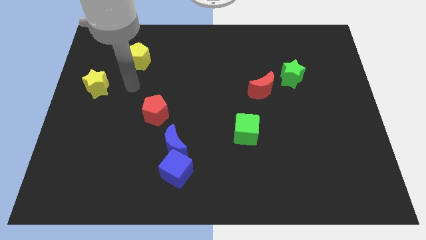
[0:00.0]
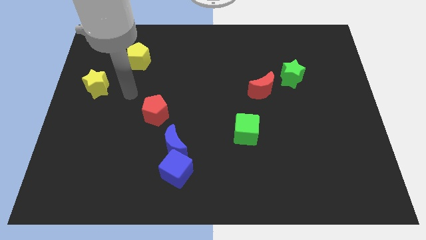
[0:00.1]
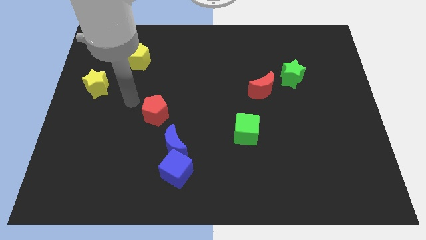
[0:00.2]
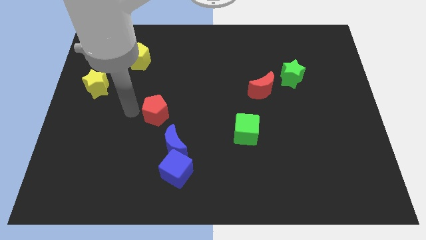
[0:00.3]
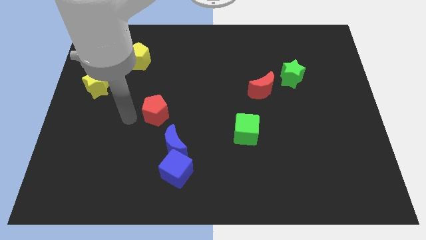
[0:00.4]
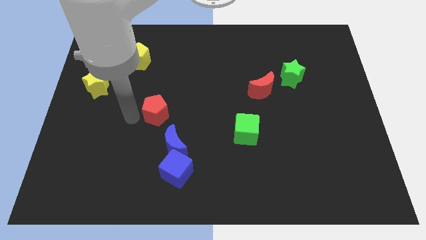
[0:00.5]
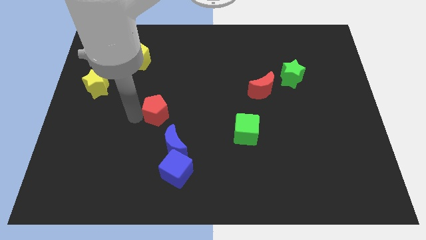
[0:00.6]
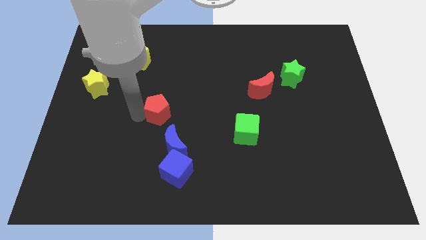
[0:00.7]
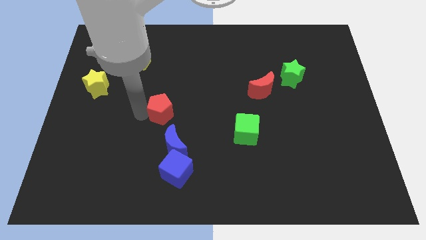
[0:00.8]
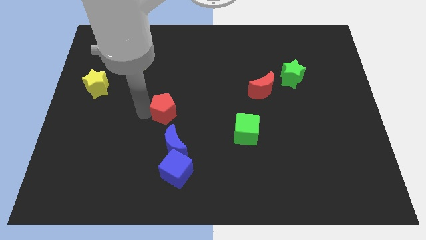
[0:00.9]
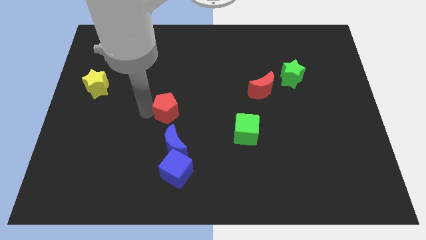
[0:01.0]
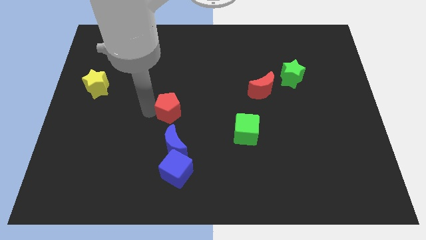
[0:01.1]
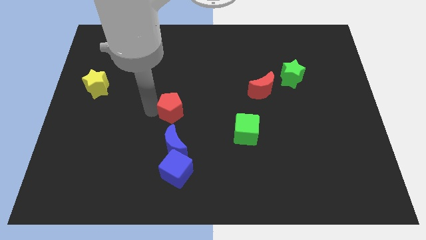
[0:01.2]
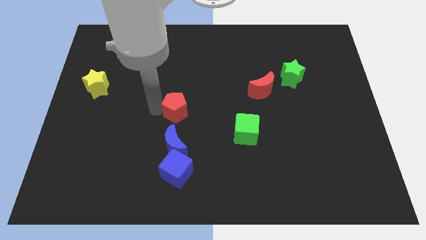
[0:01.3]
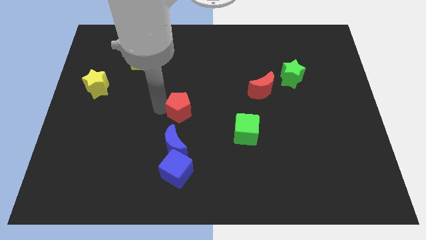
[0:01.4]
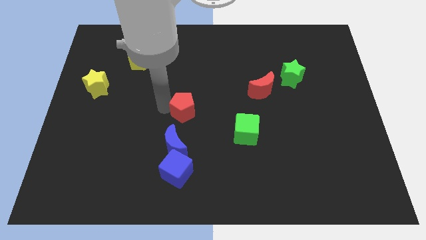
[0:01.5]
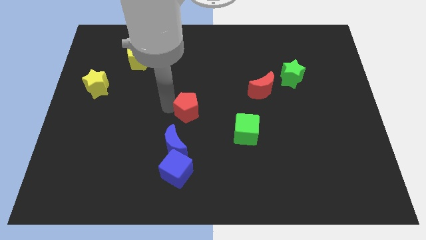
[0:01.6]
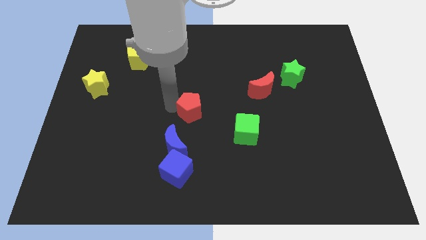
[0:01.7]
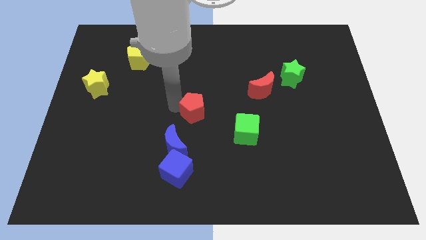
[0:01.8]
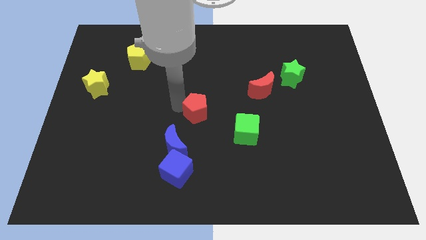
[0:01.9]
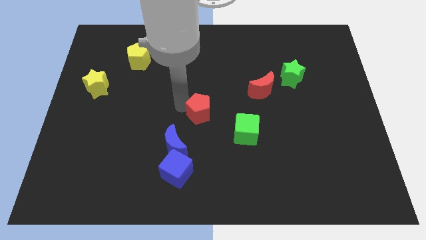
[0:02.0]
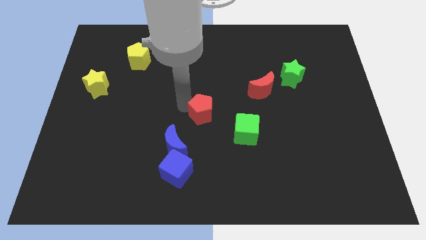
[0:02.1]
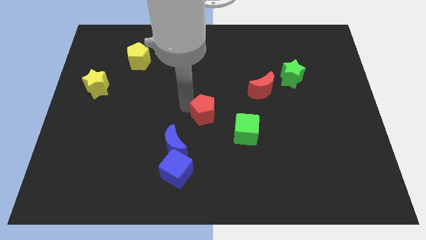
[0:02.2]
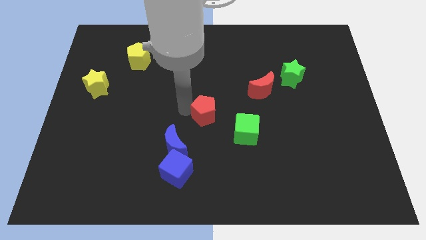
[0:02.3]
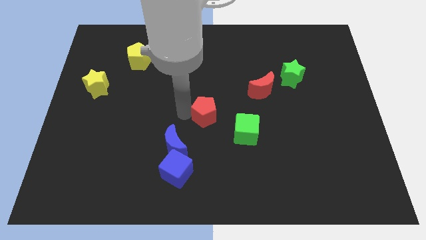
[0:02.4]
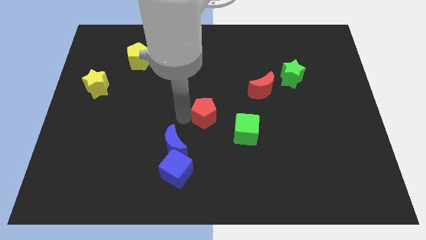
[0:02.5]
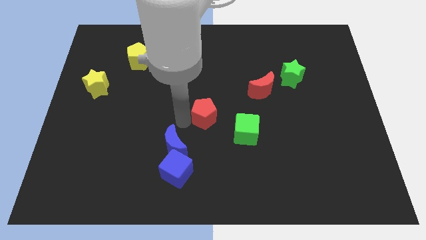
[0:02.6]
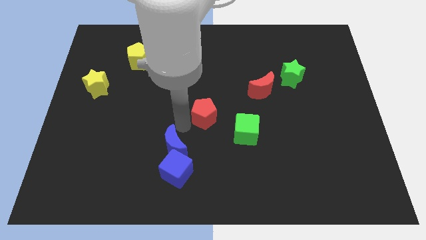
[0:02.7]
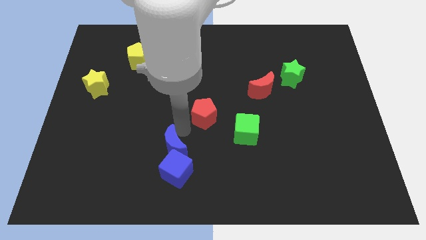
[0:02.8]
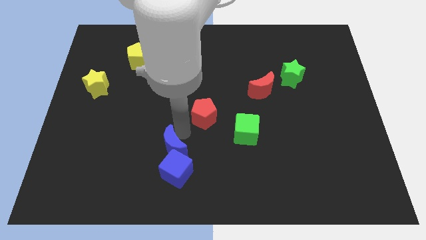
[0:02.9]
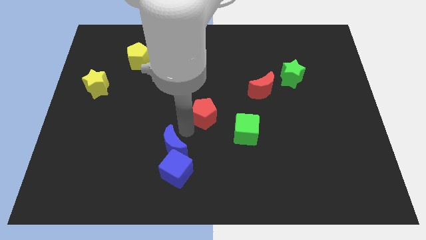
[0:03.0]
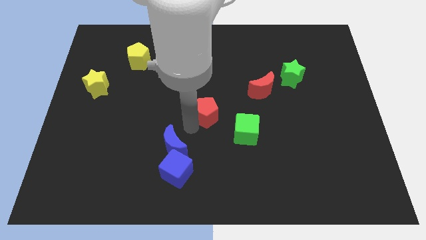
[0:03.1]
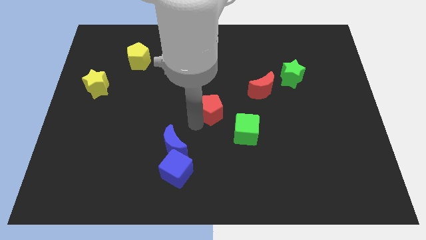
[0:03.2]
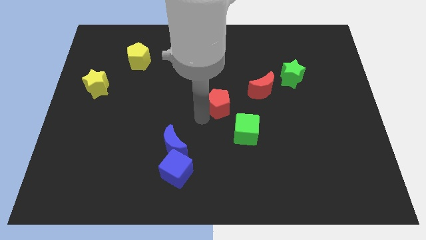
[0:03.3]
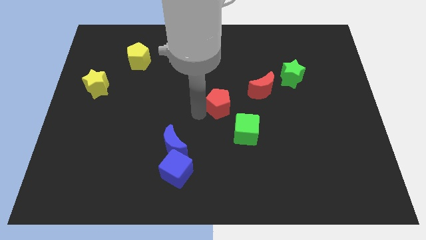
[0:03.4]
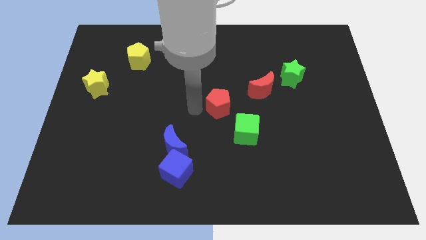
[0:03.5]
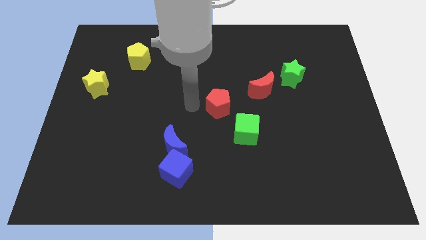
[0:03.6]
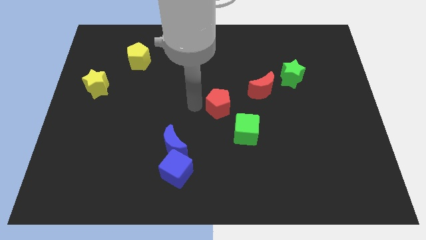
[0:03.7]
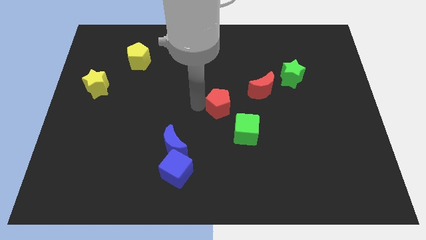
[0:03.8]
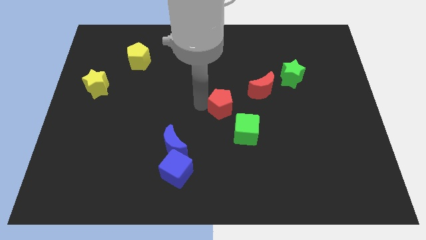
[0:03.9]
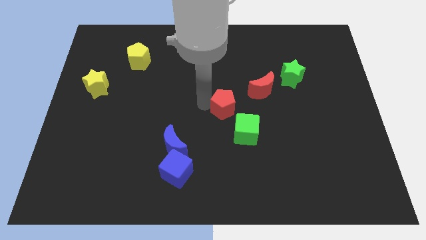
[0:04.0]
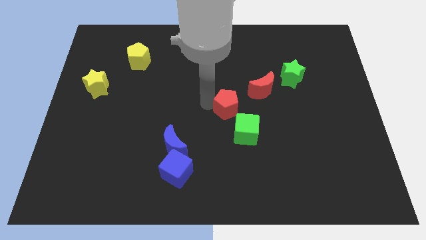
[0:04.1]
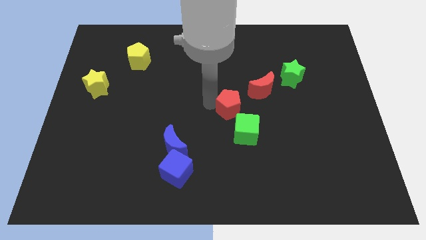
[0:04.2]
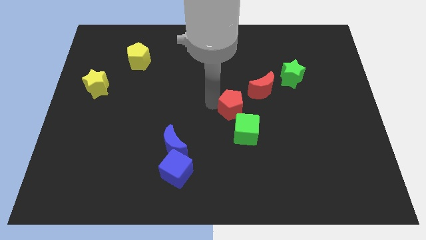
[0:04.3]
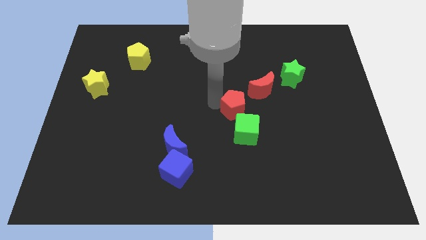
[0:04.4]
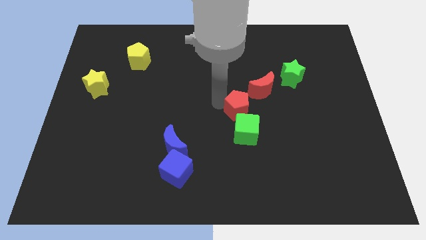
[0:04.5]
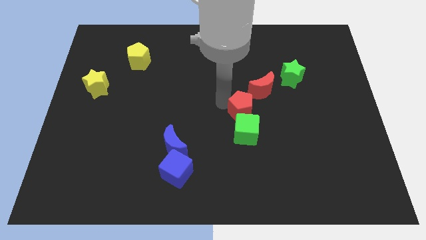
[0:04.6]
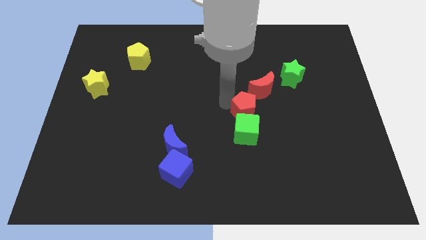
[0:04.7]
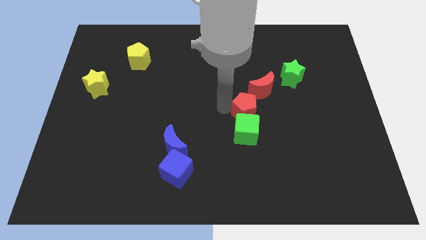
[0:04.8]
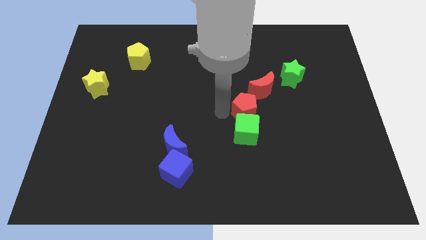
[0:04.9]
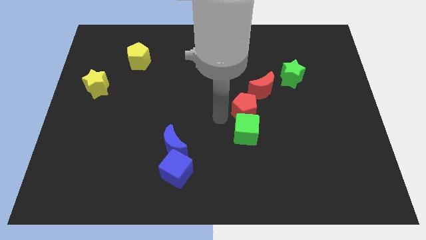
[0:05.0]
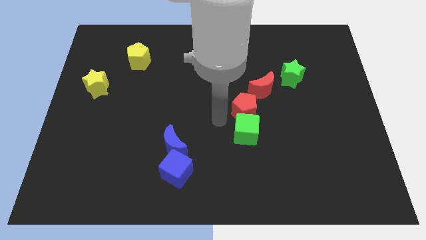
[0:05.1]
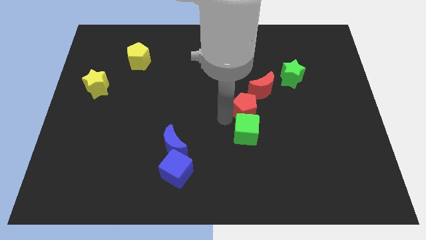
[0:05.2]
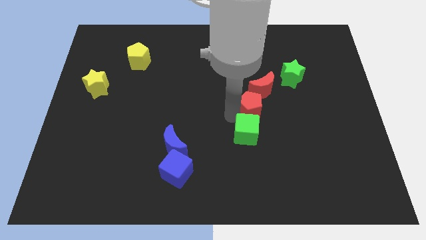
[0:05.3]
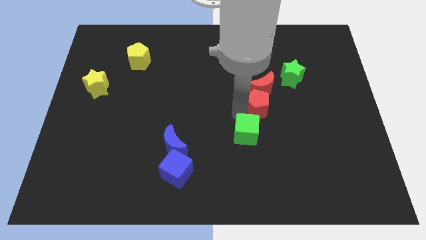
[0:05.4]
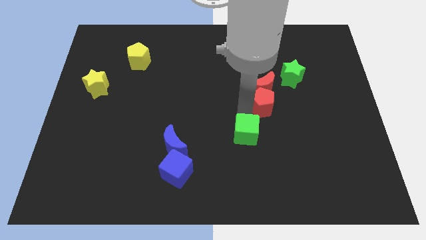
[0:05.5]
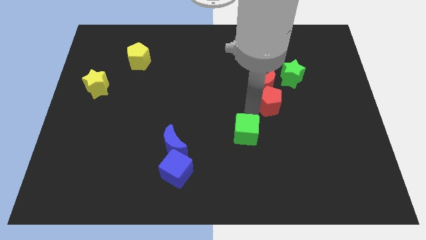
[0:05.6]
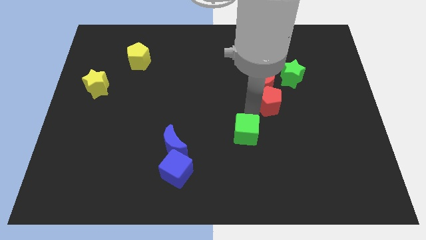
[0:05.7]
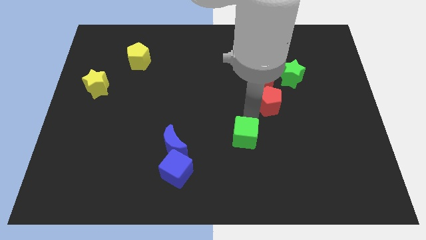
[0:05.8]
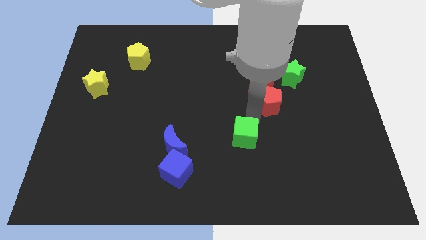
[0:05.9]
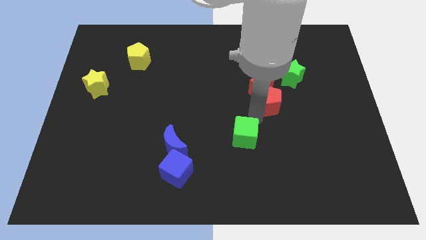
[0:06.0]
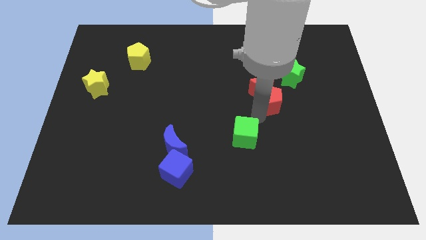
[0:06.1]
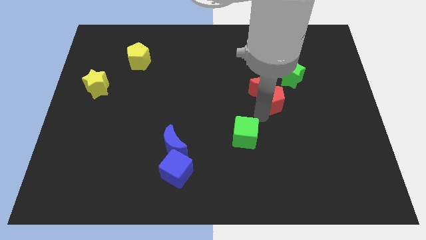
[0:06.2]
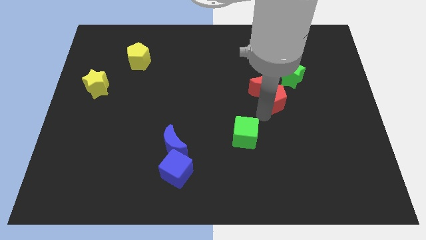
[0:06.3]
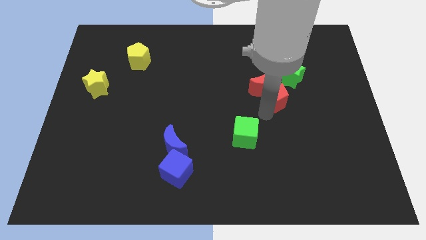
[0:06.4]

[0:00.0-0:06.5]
slide the red pentagon right of the red moon

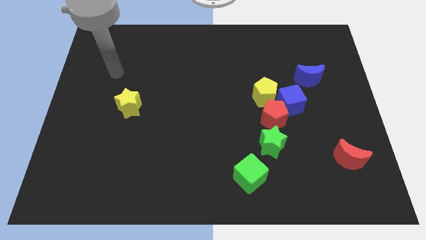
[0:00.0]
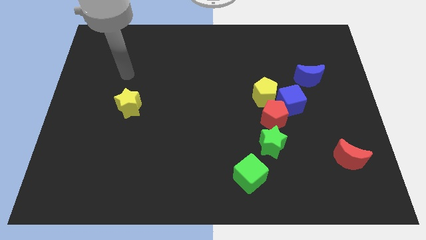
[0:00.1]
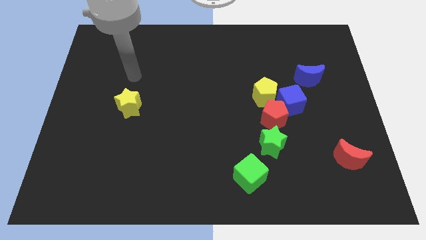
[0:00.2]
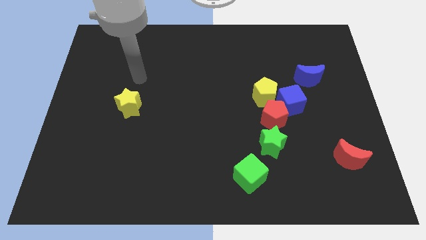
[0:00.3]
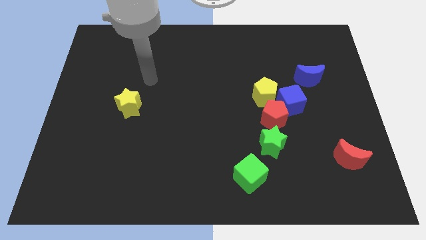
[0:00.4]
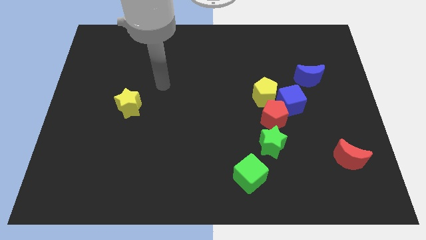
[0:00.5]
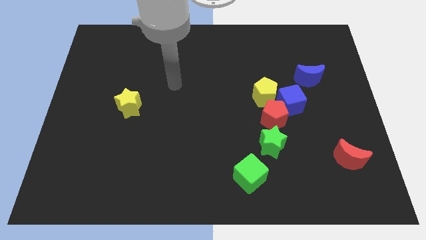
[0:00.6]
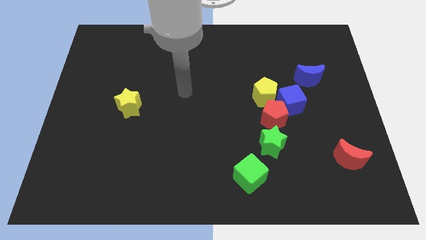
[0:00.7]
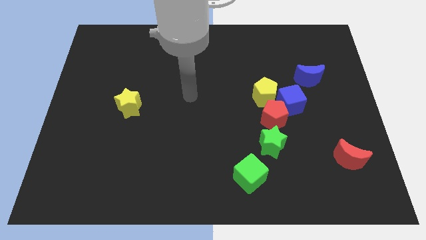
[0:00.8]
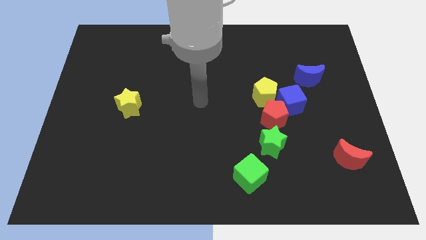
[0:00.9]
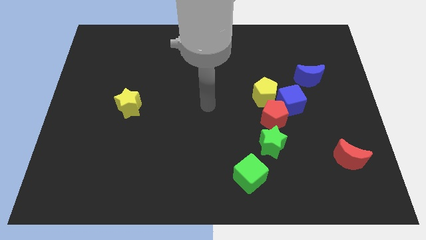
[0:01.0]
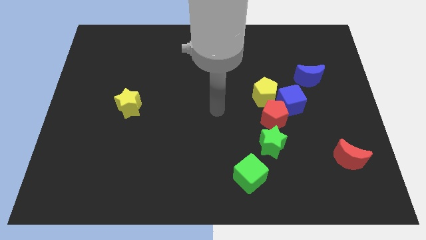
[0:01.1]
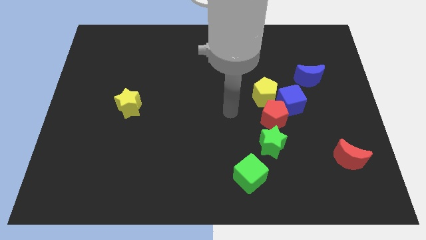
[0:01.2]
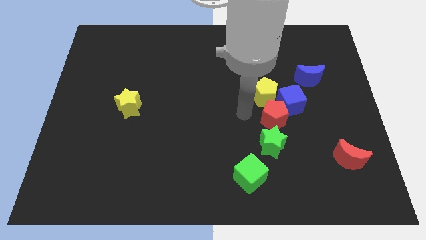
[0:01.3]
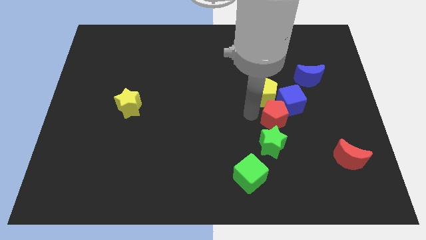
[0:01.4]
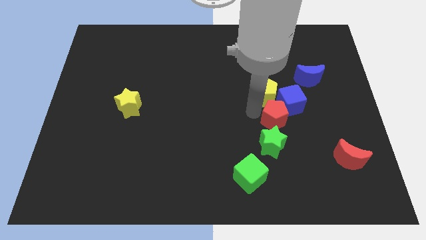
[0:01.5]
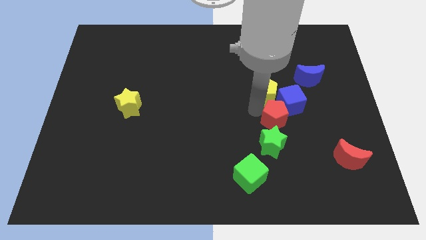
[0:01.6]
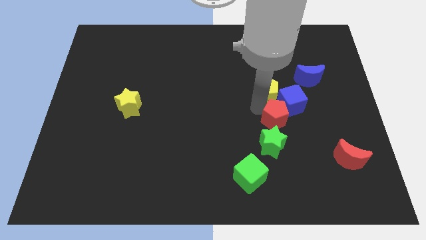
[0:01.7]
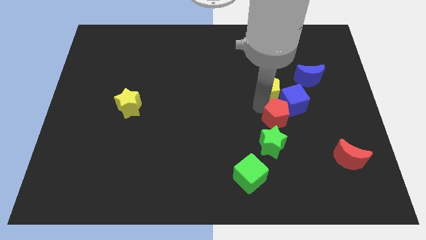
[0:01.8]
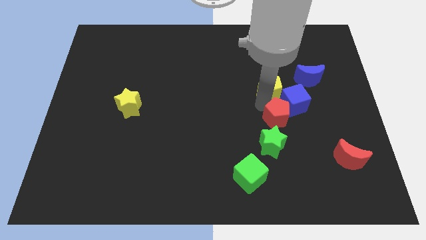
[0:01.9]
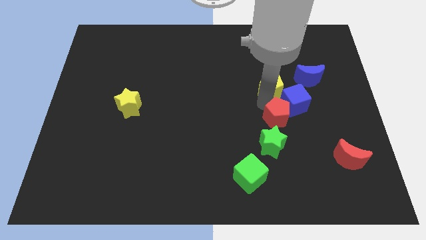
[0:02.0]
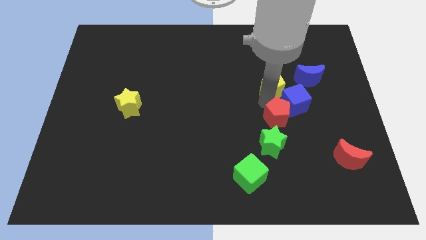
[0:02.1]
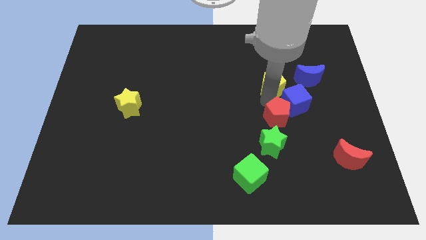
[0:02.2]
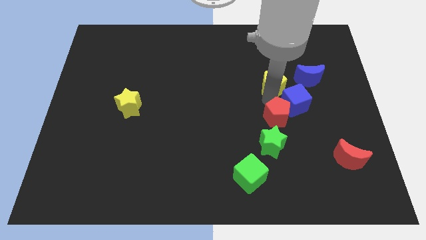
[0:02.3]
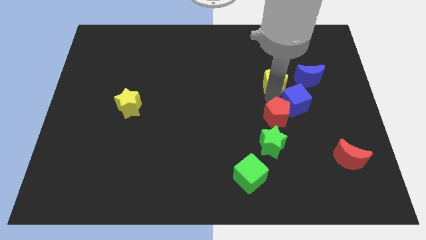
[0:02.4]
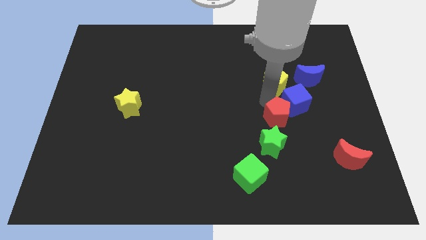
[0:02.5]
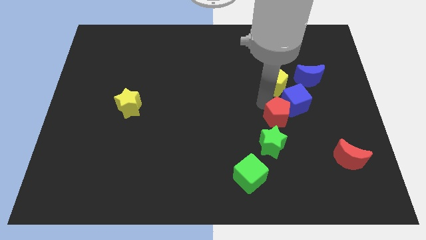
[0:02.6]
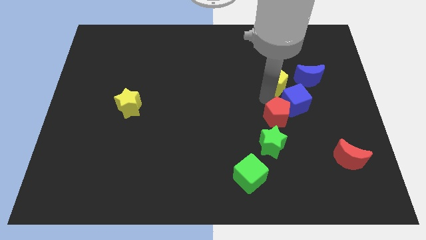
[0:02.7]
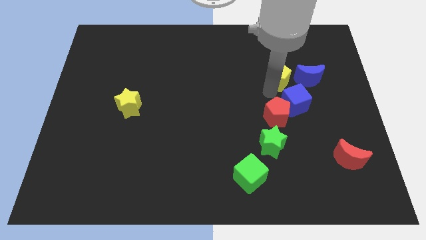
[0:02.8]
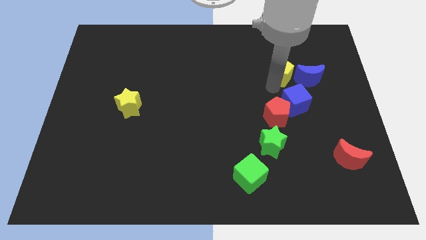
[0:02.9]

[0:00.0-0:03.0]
put the yellow pentagon to the top left side of the blue moon
